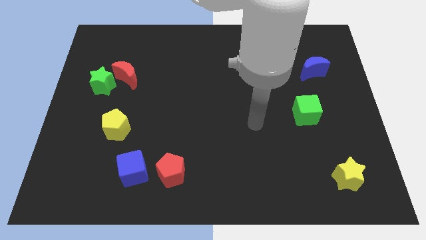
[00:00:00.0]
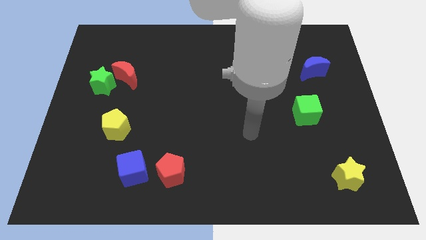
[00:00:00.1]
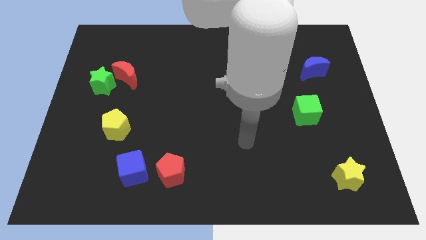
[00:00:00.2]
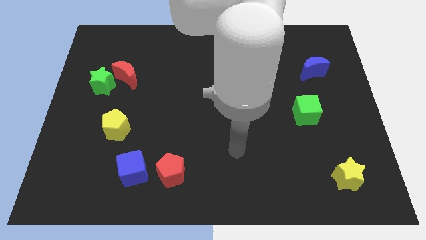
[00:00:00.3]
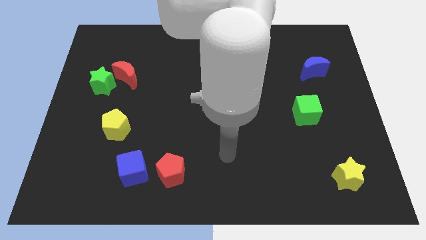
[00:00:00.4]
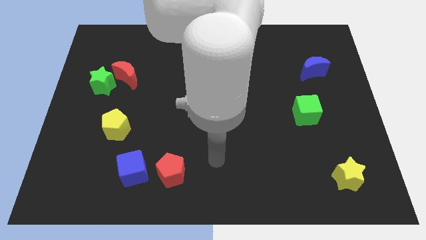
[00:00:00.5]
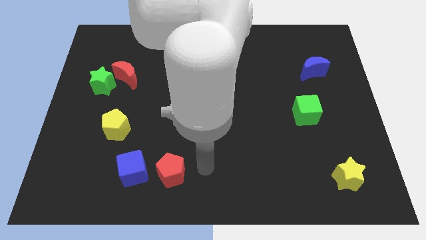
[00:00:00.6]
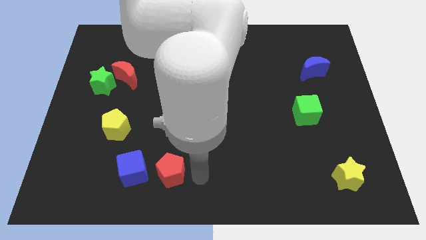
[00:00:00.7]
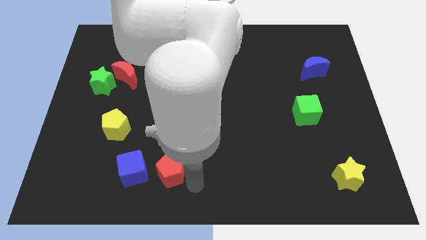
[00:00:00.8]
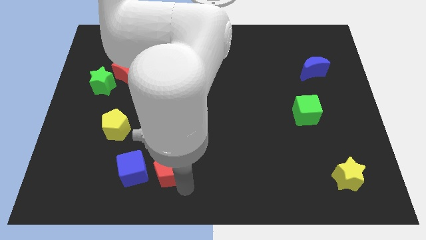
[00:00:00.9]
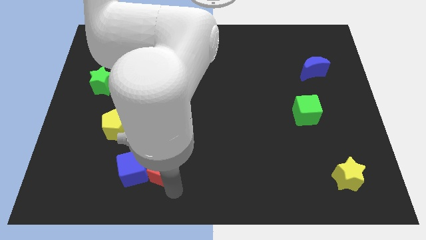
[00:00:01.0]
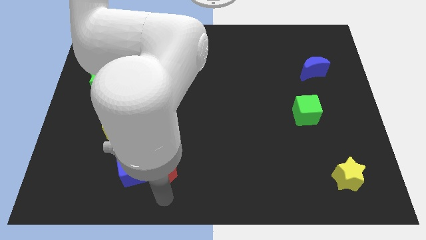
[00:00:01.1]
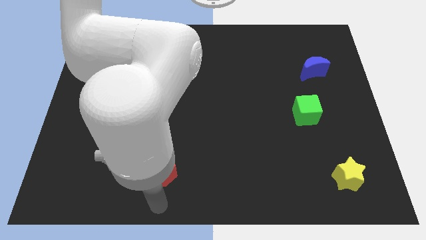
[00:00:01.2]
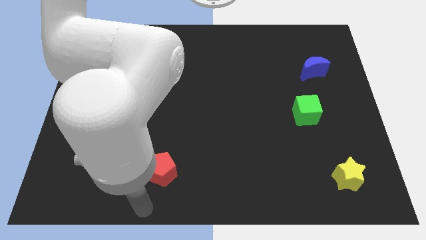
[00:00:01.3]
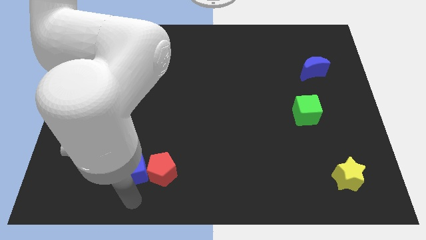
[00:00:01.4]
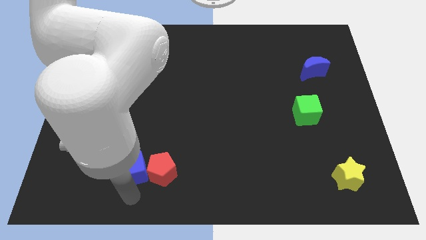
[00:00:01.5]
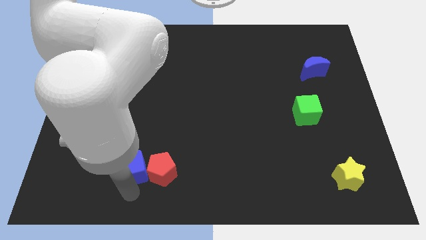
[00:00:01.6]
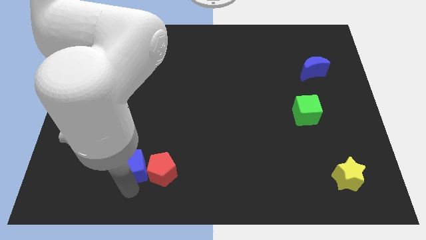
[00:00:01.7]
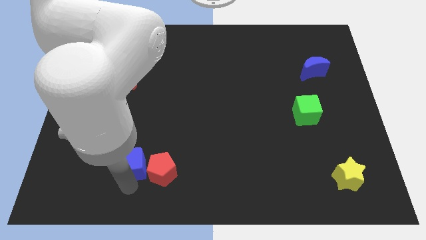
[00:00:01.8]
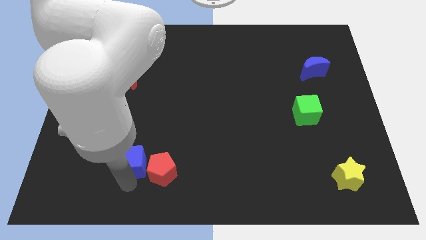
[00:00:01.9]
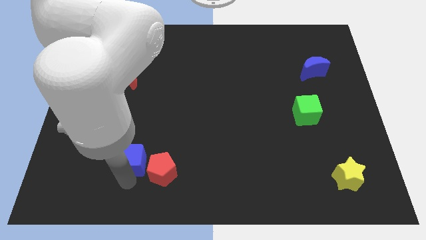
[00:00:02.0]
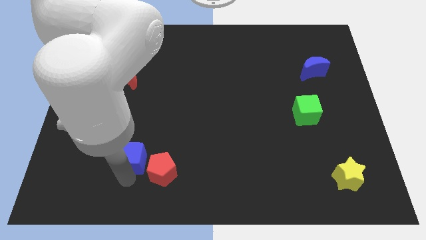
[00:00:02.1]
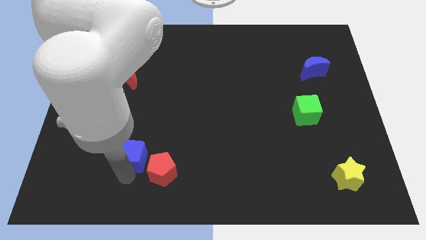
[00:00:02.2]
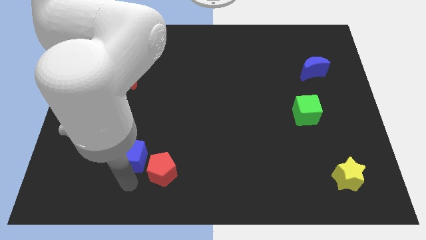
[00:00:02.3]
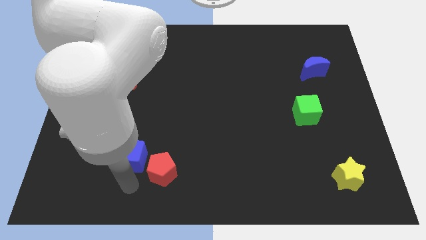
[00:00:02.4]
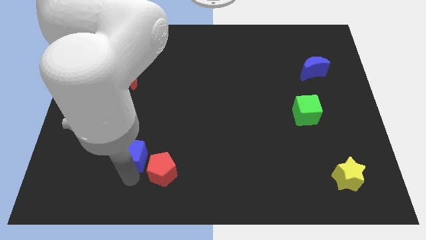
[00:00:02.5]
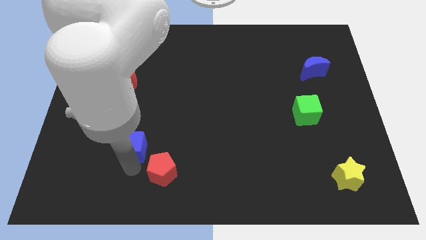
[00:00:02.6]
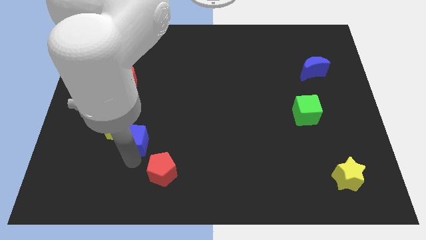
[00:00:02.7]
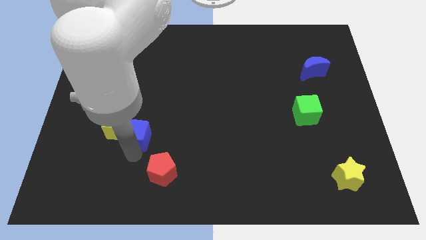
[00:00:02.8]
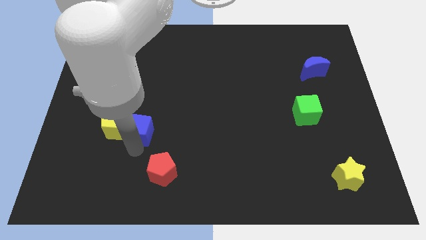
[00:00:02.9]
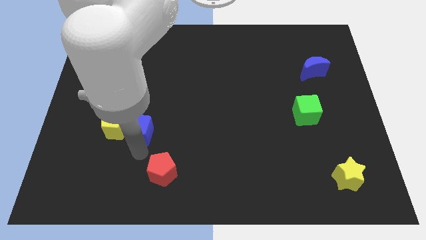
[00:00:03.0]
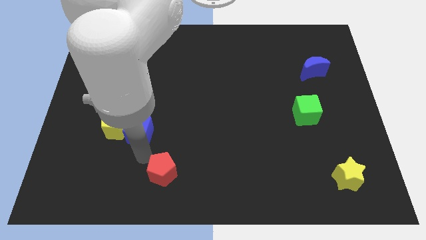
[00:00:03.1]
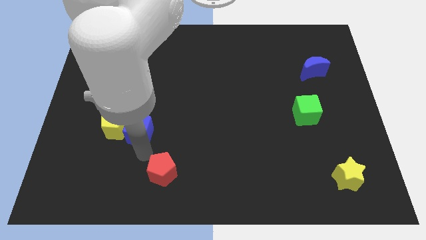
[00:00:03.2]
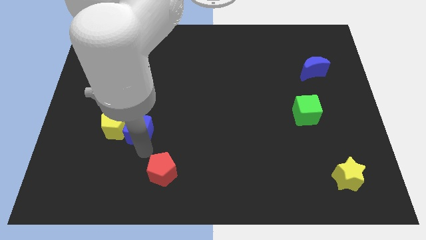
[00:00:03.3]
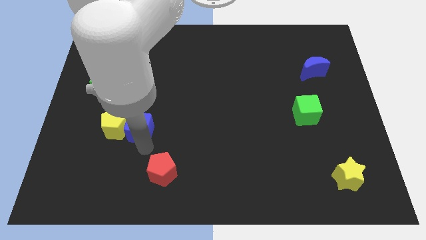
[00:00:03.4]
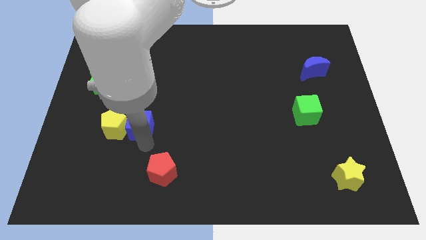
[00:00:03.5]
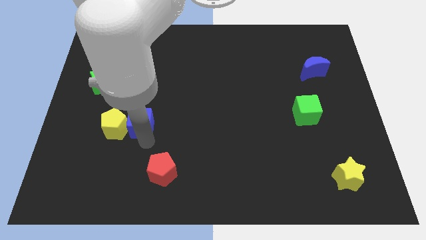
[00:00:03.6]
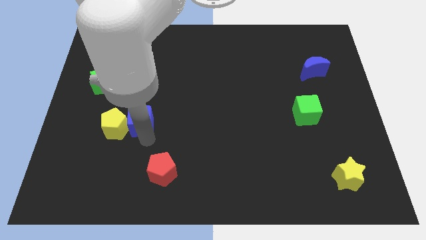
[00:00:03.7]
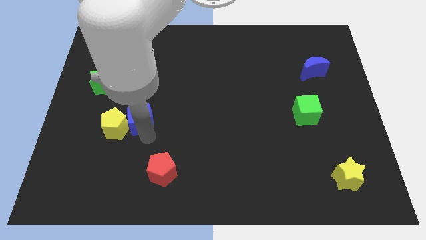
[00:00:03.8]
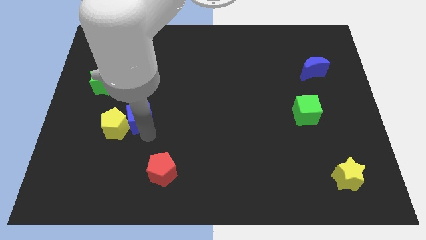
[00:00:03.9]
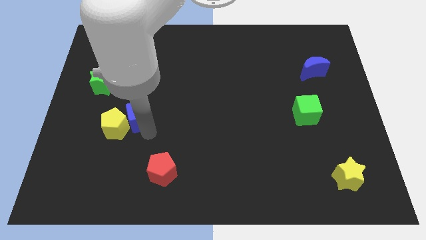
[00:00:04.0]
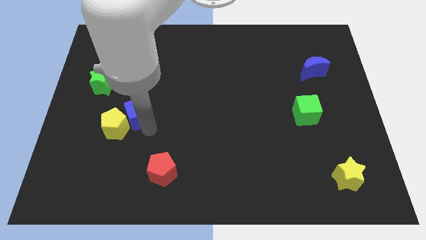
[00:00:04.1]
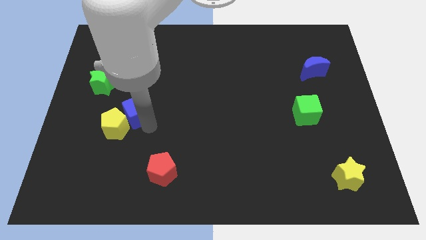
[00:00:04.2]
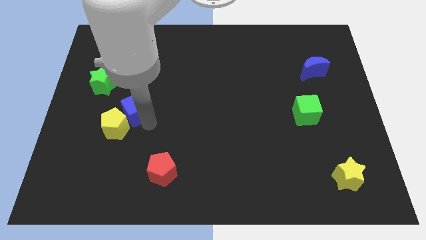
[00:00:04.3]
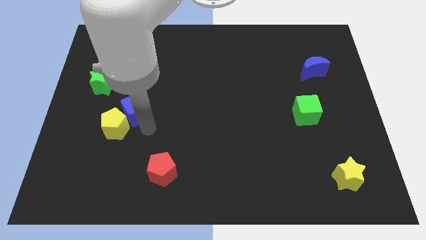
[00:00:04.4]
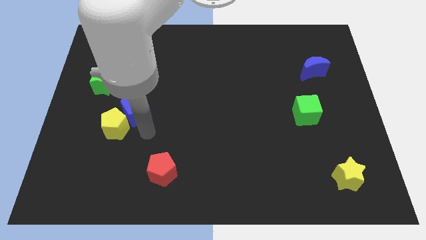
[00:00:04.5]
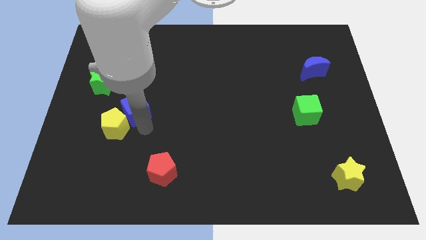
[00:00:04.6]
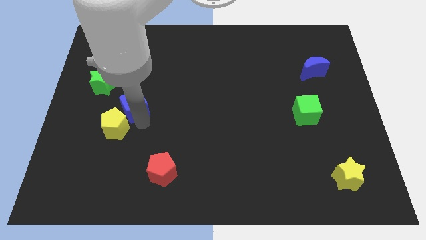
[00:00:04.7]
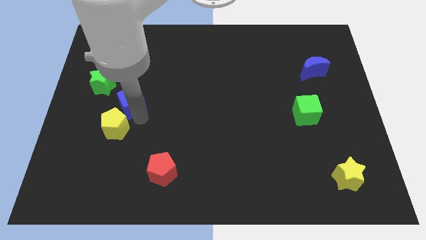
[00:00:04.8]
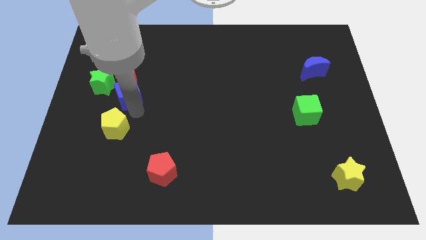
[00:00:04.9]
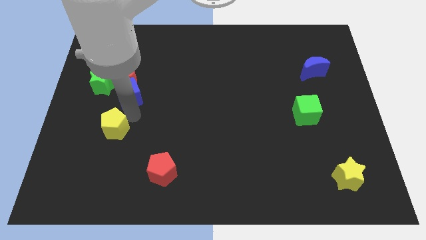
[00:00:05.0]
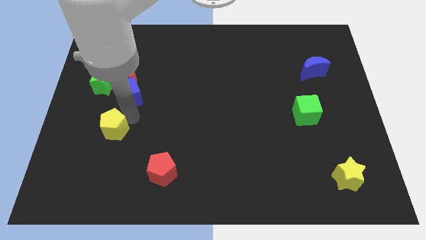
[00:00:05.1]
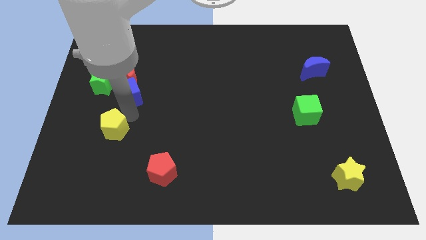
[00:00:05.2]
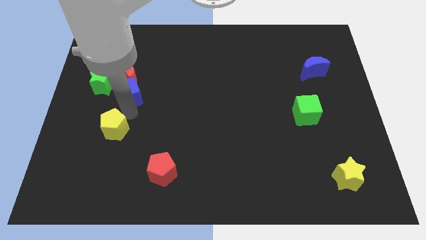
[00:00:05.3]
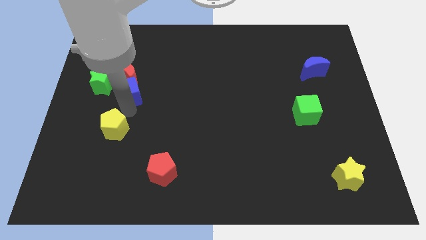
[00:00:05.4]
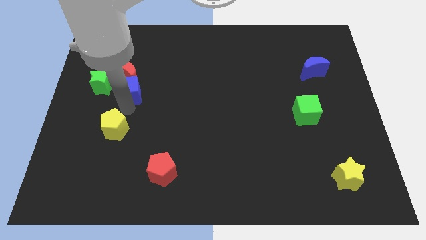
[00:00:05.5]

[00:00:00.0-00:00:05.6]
move the blue cube next to the red moon
